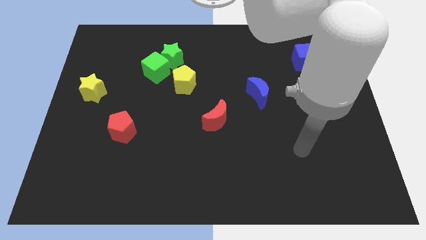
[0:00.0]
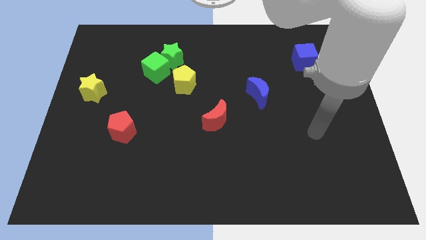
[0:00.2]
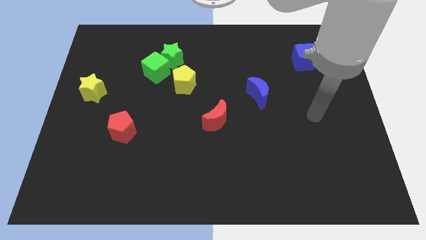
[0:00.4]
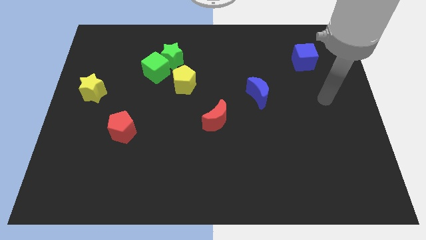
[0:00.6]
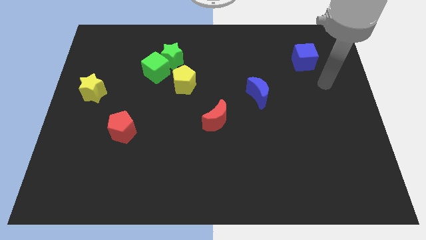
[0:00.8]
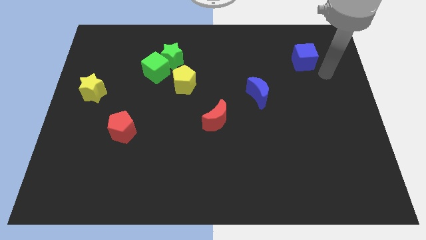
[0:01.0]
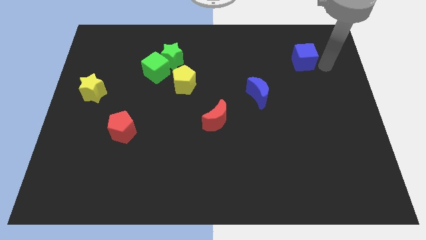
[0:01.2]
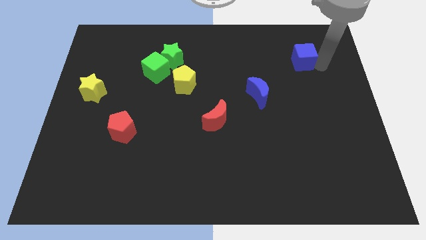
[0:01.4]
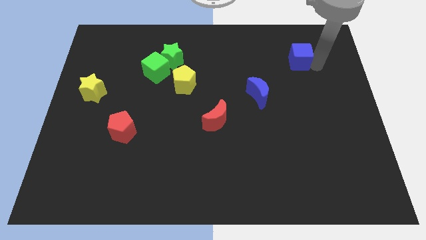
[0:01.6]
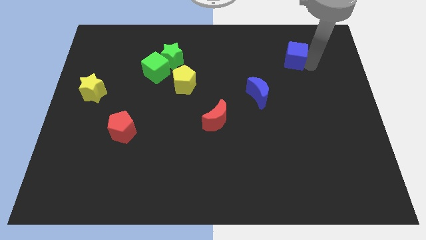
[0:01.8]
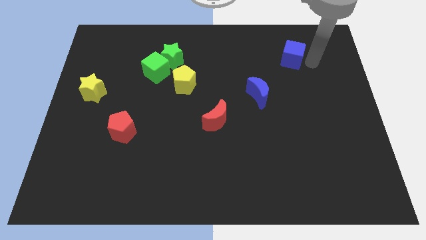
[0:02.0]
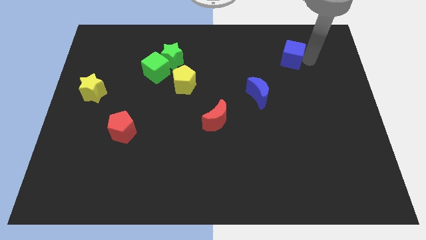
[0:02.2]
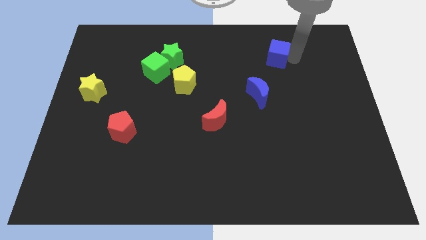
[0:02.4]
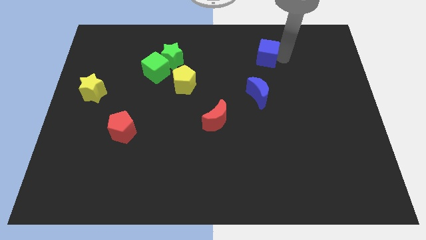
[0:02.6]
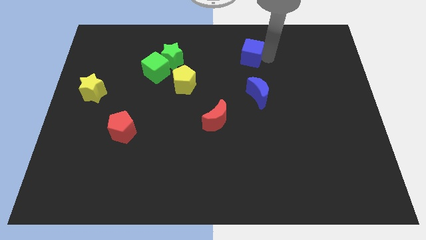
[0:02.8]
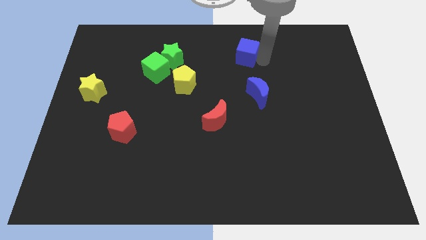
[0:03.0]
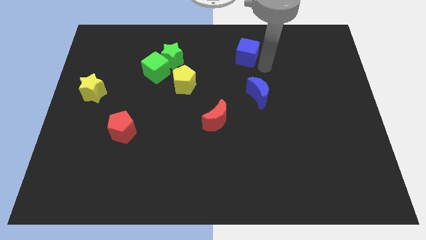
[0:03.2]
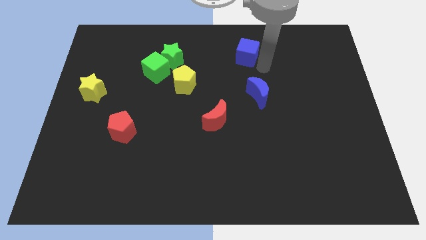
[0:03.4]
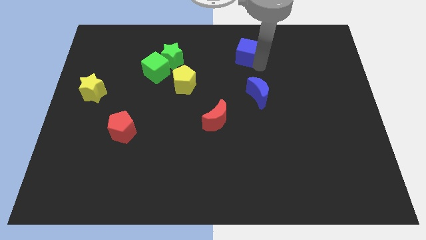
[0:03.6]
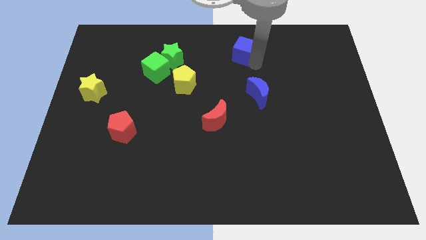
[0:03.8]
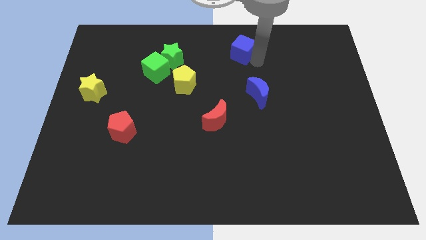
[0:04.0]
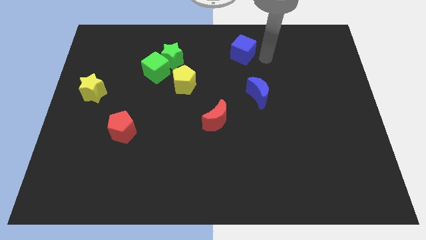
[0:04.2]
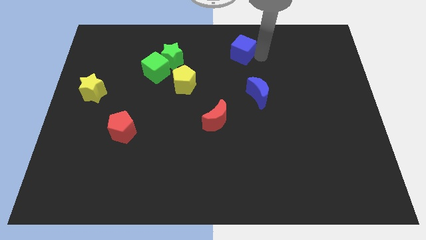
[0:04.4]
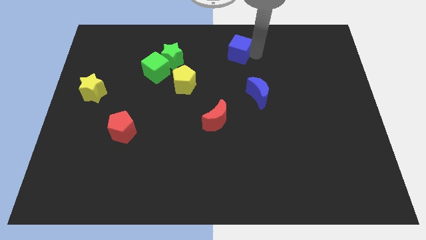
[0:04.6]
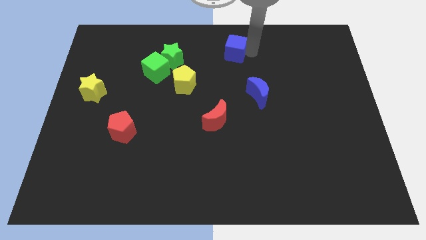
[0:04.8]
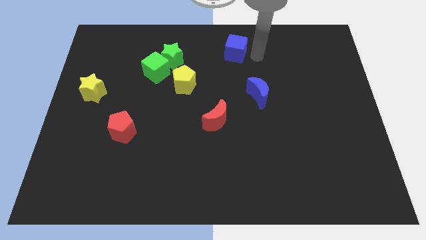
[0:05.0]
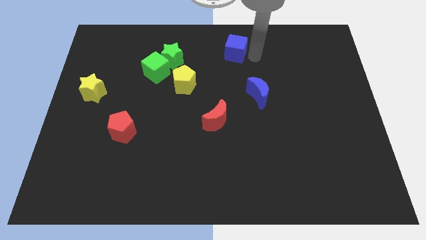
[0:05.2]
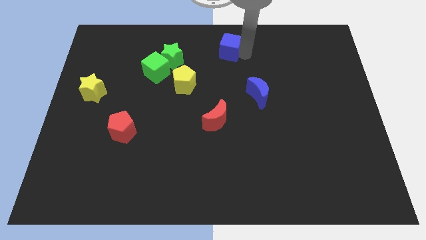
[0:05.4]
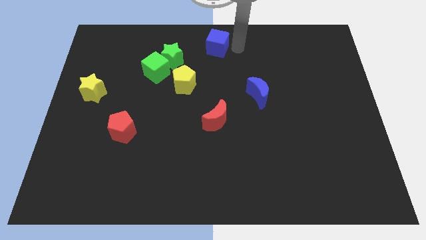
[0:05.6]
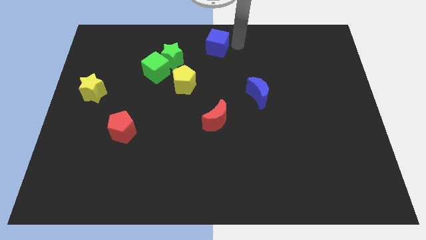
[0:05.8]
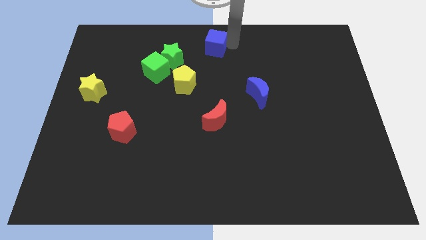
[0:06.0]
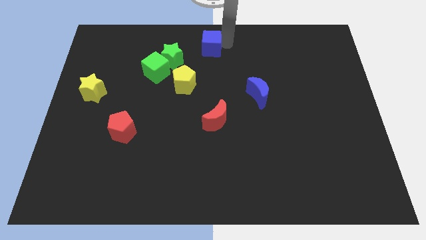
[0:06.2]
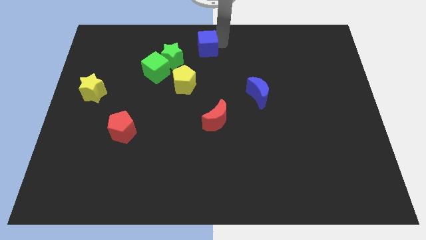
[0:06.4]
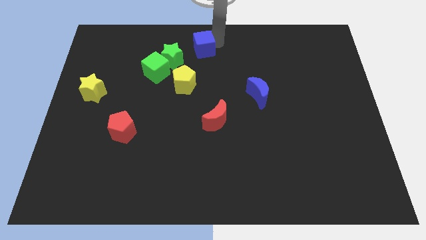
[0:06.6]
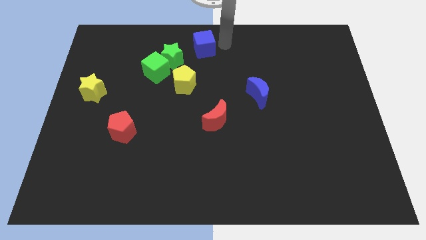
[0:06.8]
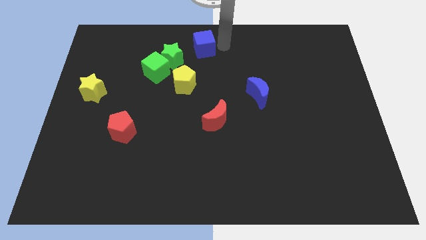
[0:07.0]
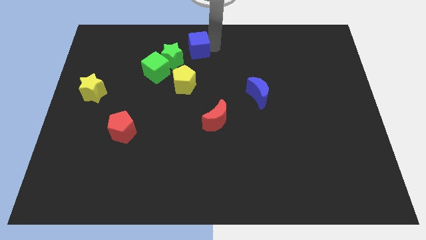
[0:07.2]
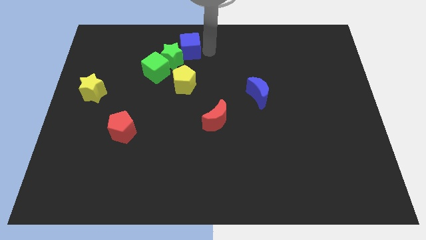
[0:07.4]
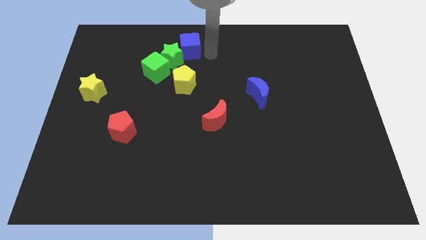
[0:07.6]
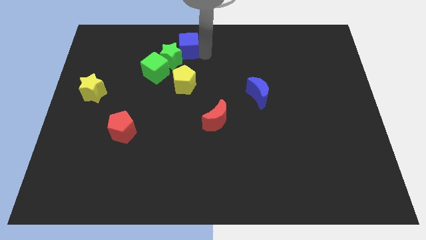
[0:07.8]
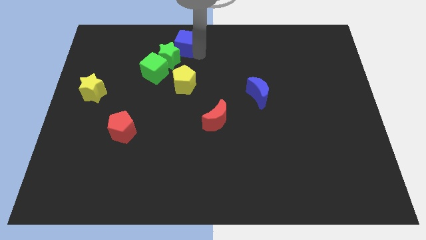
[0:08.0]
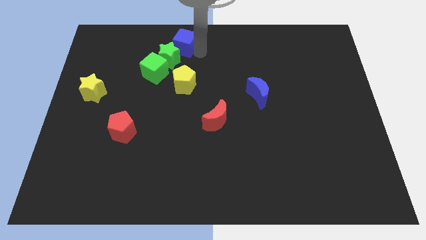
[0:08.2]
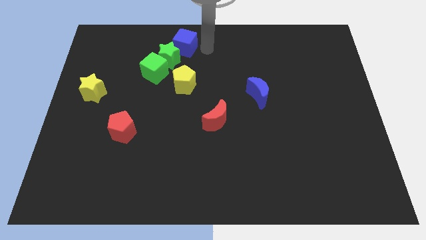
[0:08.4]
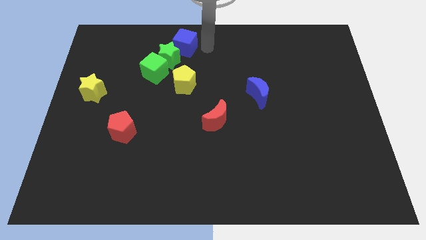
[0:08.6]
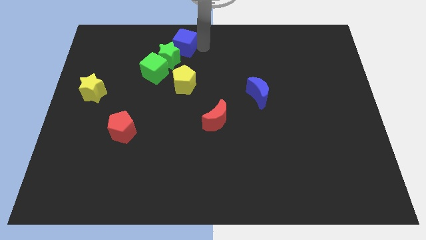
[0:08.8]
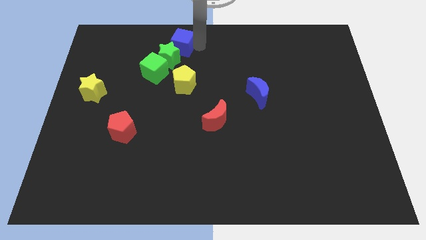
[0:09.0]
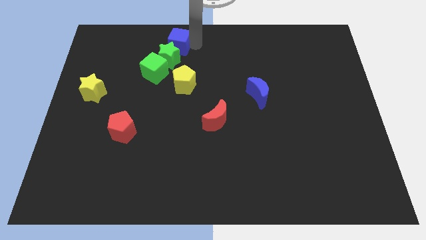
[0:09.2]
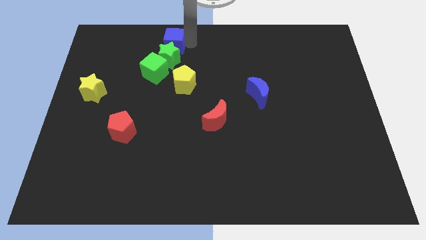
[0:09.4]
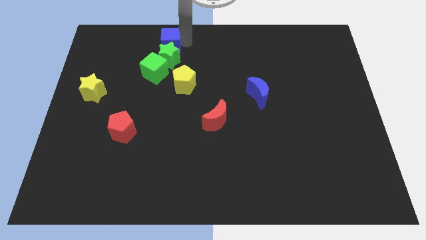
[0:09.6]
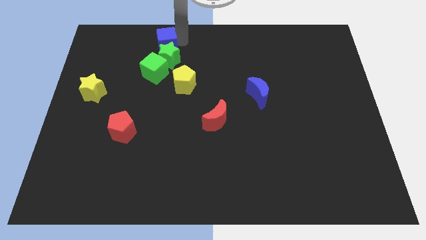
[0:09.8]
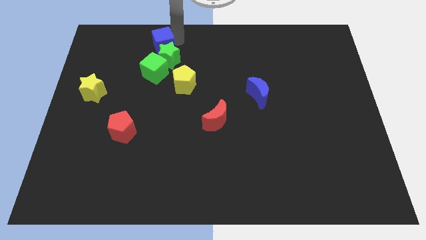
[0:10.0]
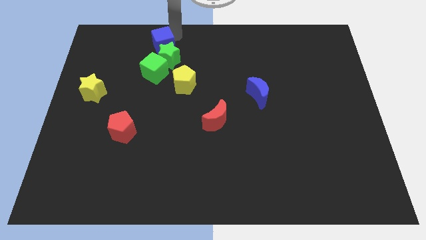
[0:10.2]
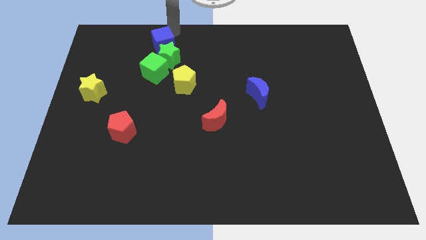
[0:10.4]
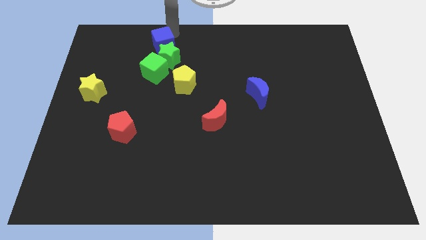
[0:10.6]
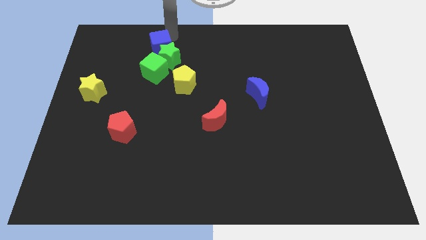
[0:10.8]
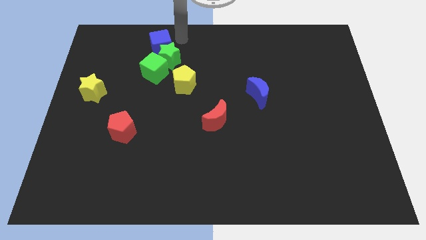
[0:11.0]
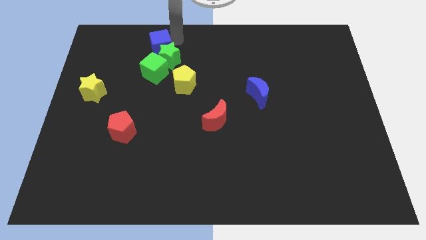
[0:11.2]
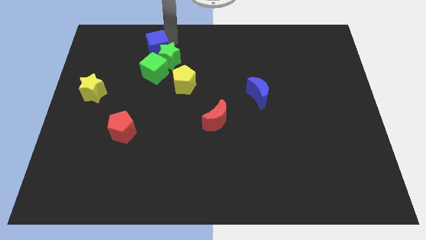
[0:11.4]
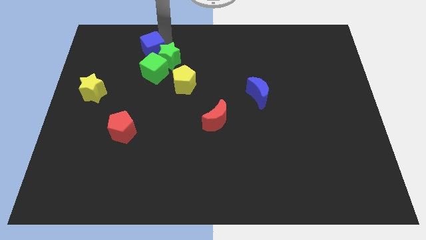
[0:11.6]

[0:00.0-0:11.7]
push the blue cube to the top left of the green cube

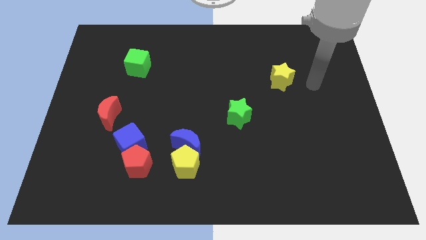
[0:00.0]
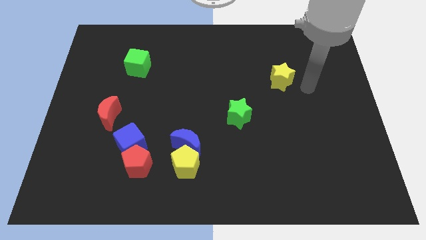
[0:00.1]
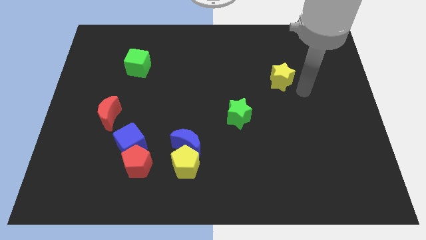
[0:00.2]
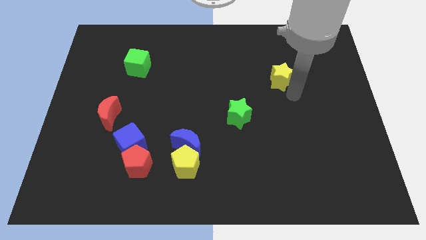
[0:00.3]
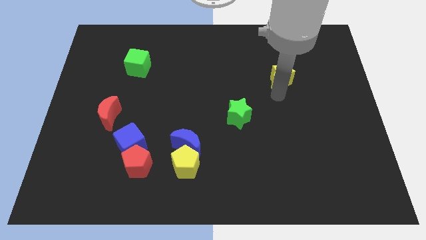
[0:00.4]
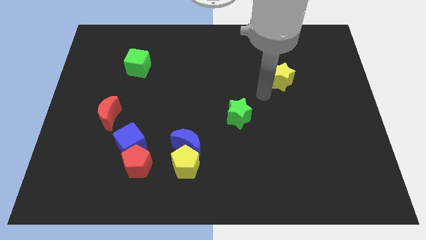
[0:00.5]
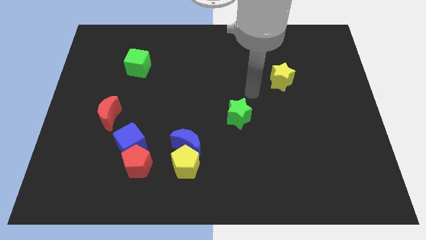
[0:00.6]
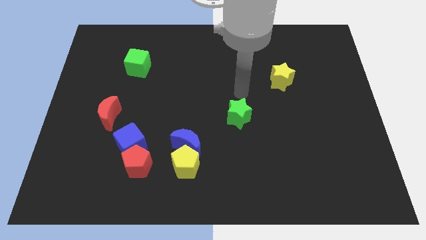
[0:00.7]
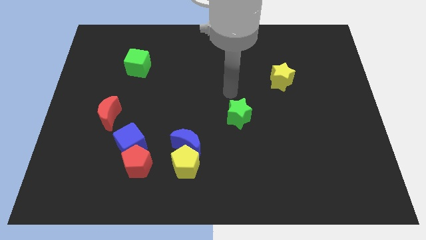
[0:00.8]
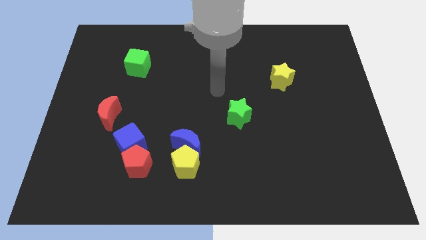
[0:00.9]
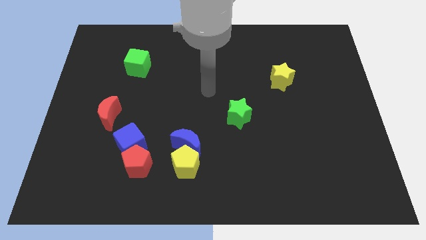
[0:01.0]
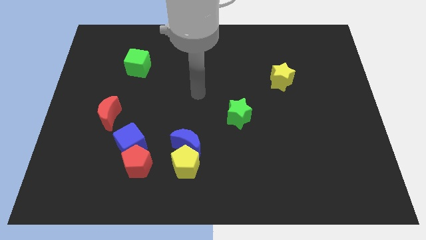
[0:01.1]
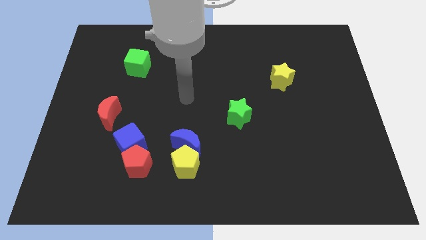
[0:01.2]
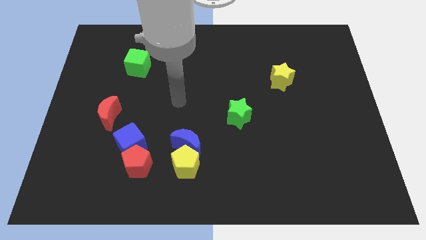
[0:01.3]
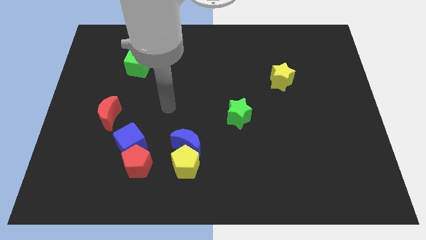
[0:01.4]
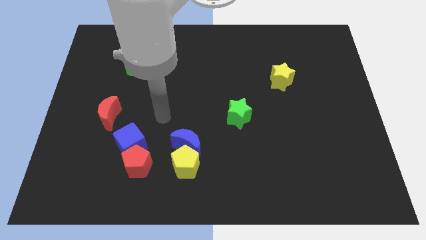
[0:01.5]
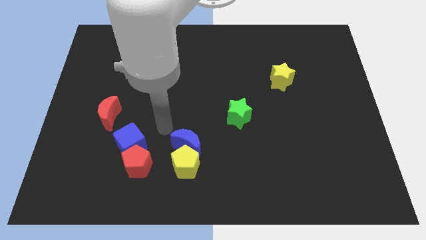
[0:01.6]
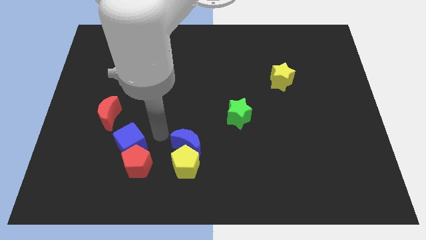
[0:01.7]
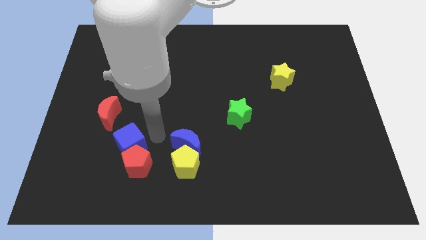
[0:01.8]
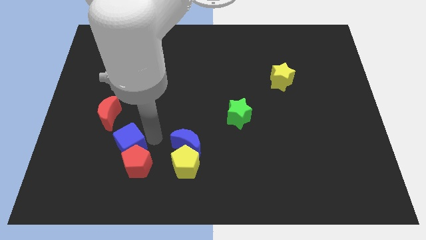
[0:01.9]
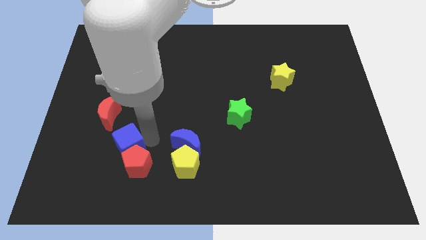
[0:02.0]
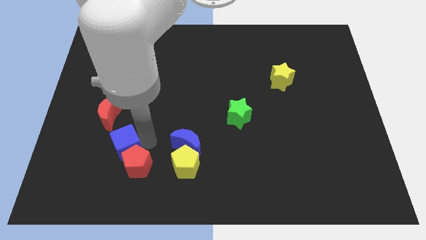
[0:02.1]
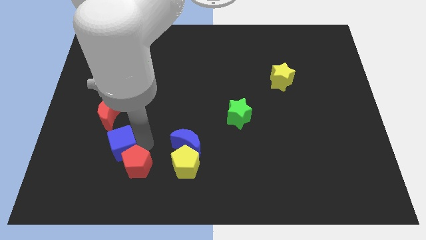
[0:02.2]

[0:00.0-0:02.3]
slide the blue cube below the red moon
